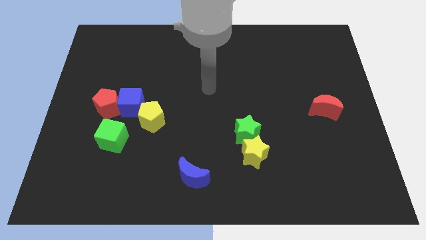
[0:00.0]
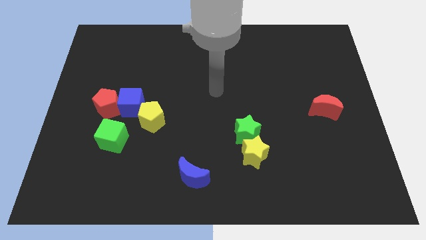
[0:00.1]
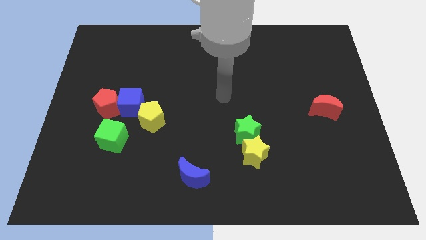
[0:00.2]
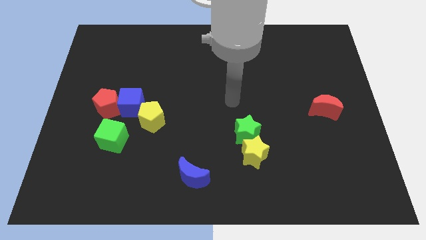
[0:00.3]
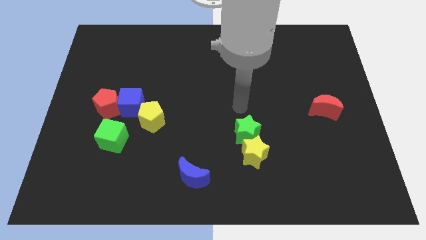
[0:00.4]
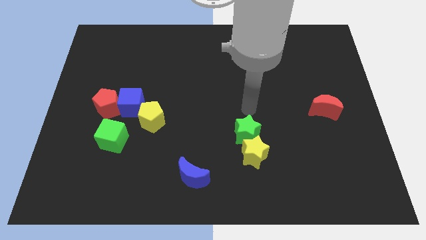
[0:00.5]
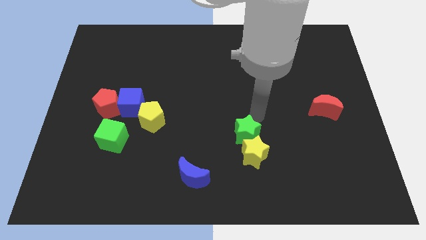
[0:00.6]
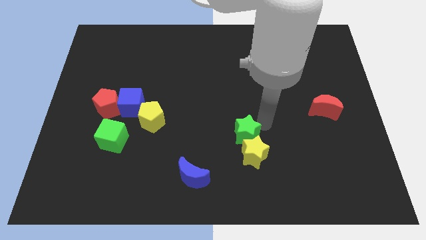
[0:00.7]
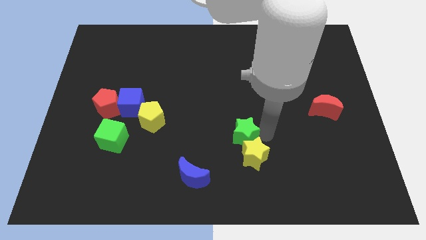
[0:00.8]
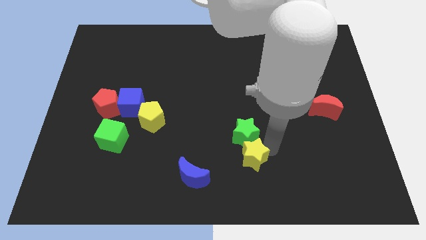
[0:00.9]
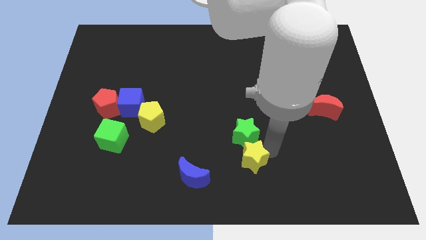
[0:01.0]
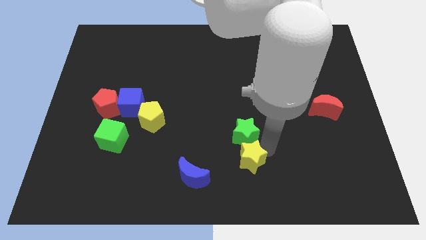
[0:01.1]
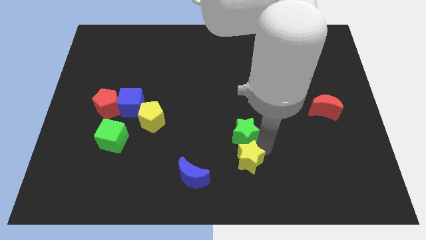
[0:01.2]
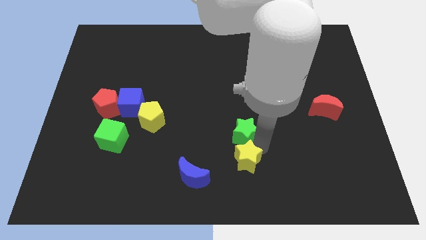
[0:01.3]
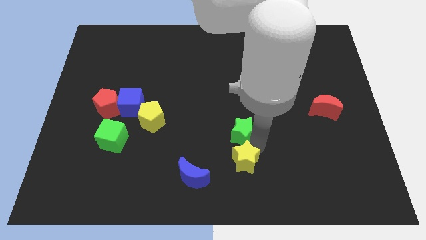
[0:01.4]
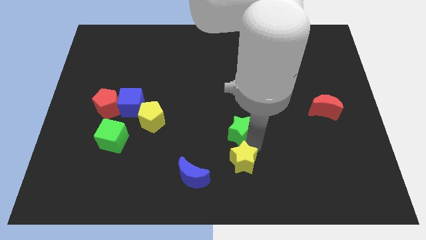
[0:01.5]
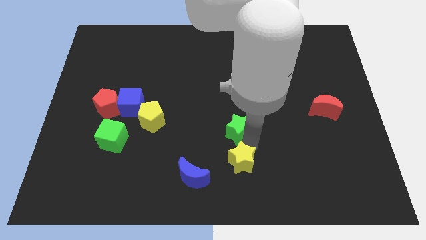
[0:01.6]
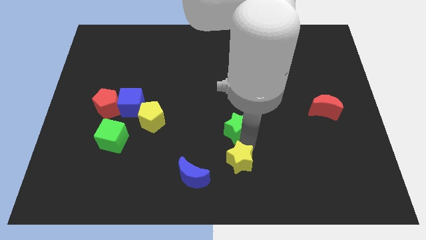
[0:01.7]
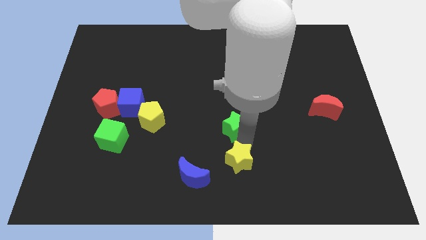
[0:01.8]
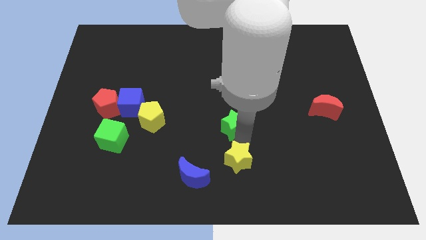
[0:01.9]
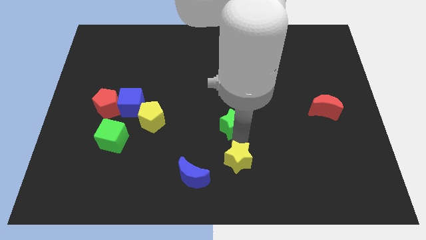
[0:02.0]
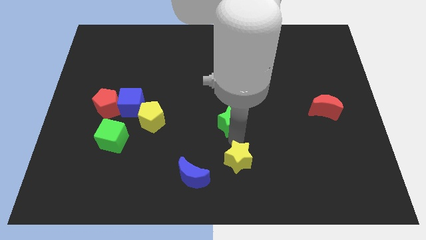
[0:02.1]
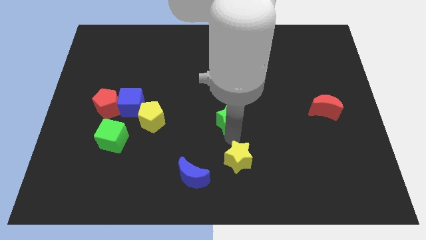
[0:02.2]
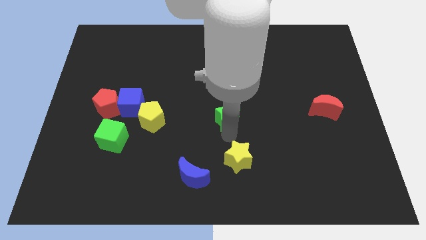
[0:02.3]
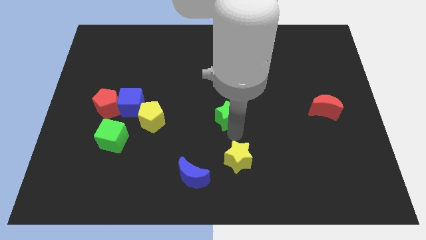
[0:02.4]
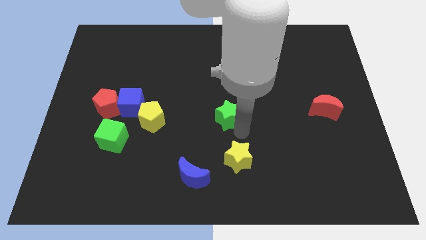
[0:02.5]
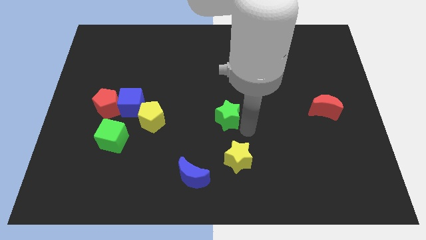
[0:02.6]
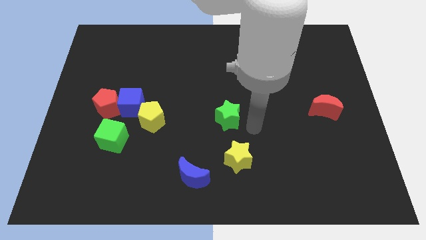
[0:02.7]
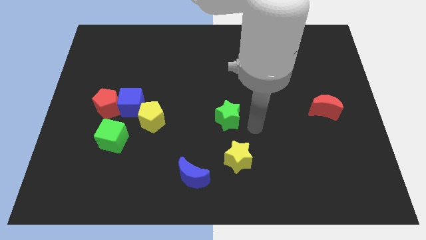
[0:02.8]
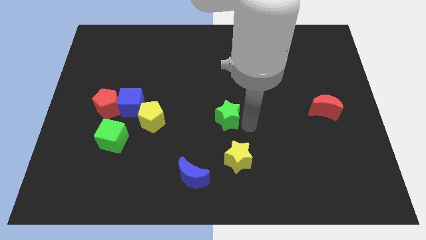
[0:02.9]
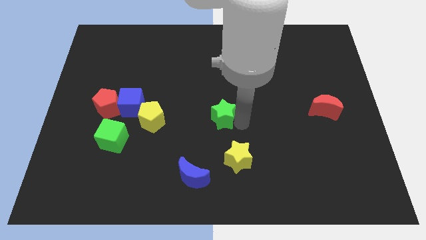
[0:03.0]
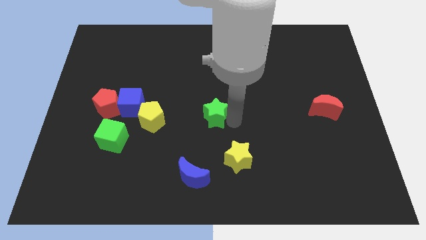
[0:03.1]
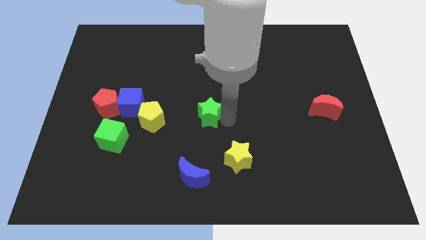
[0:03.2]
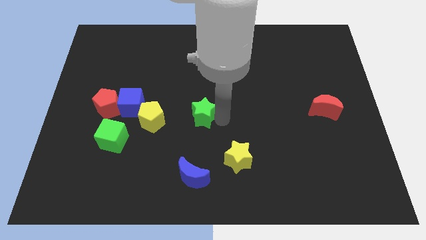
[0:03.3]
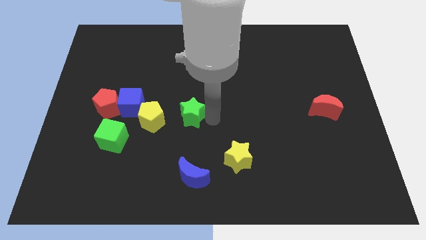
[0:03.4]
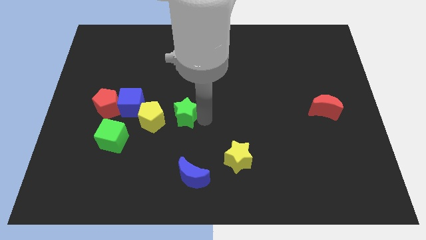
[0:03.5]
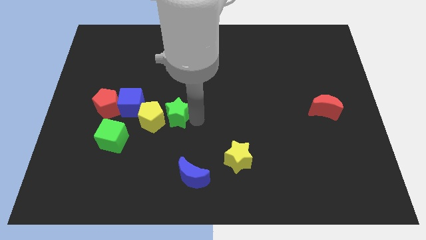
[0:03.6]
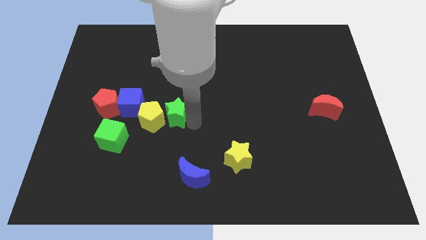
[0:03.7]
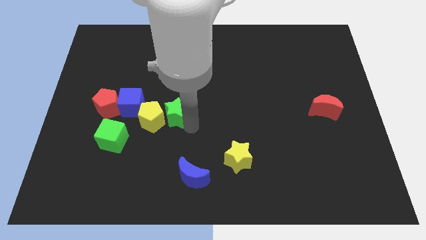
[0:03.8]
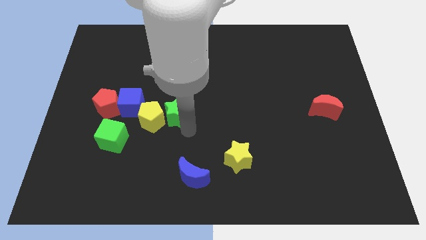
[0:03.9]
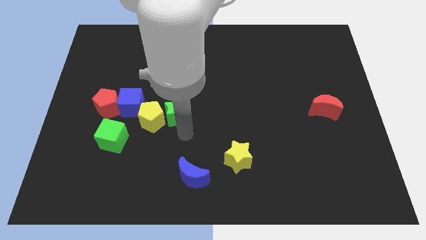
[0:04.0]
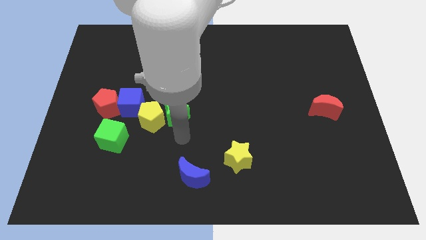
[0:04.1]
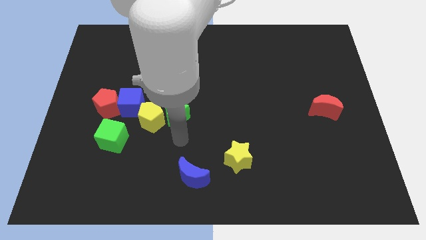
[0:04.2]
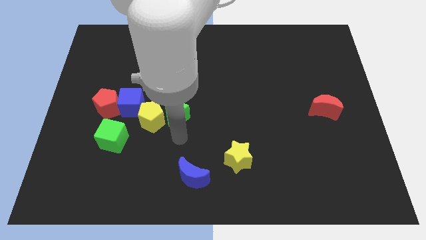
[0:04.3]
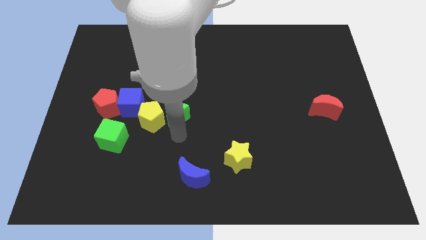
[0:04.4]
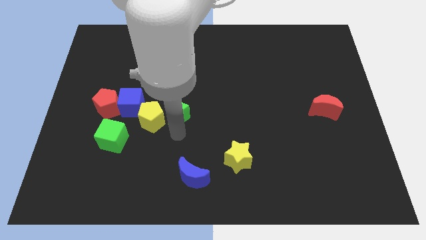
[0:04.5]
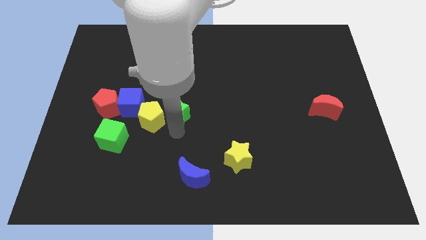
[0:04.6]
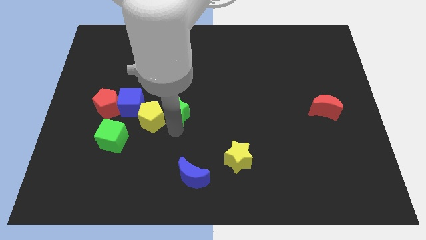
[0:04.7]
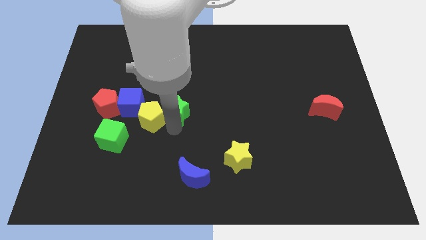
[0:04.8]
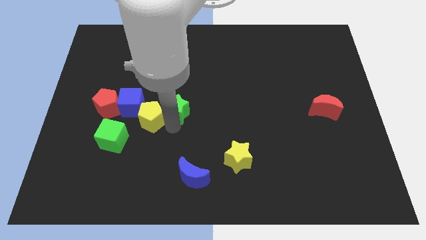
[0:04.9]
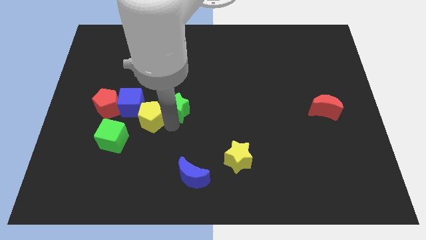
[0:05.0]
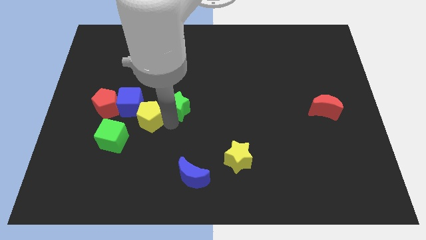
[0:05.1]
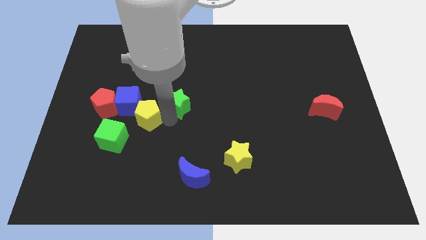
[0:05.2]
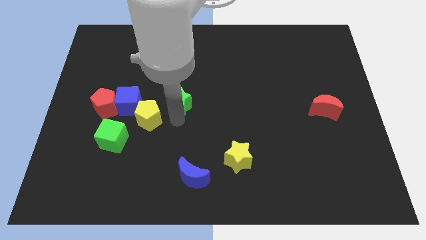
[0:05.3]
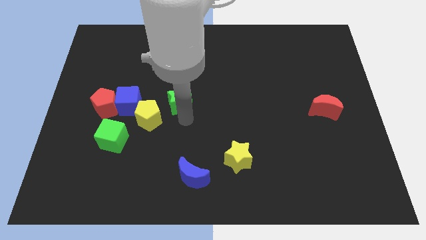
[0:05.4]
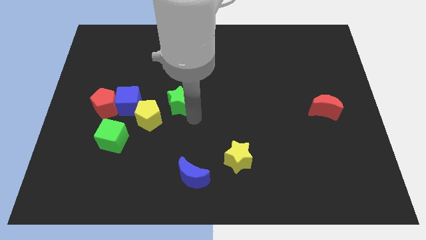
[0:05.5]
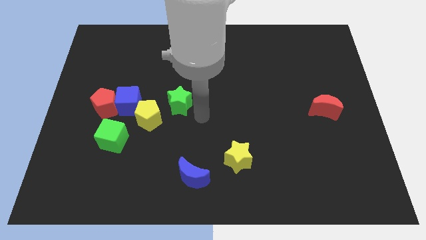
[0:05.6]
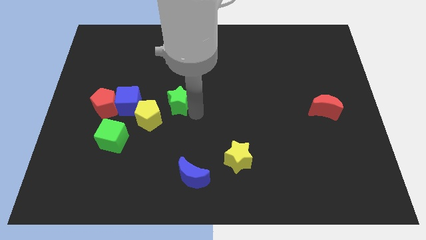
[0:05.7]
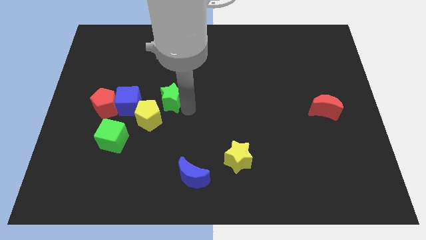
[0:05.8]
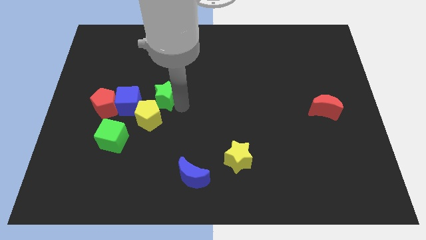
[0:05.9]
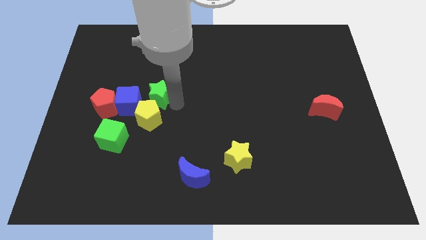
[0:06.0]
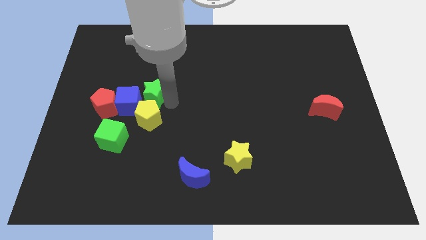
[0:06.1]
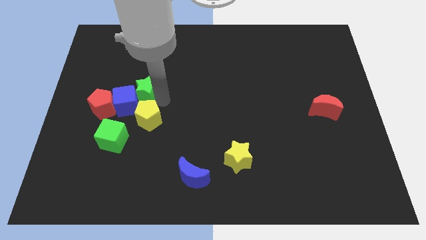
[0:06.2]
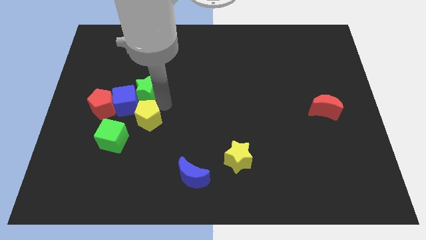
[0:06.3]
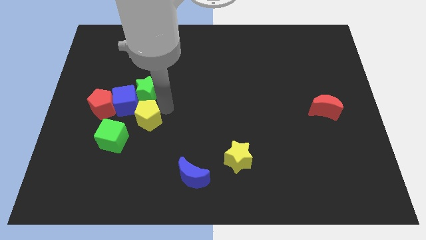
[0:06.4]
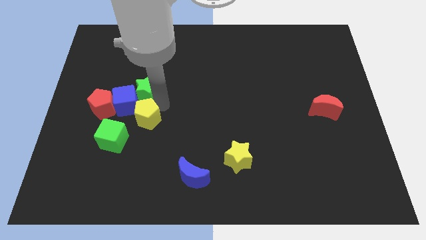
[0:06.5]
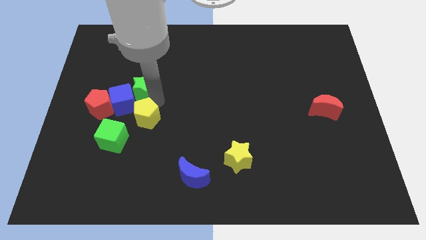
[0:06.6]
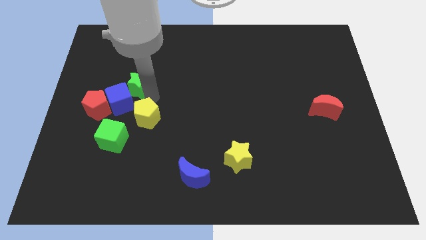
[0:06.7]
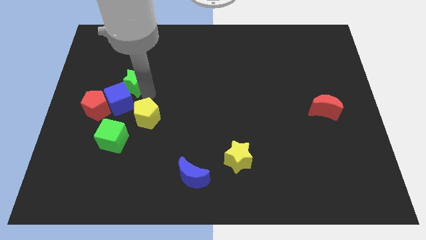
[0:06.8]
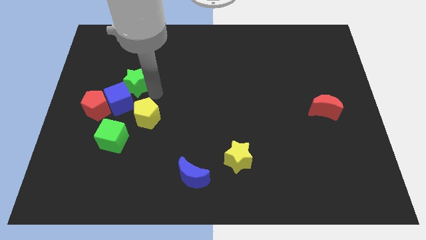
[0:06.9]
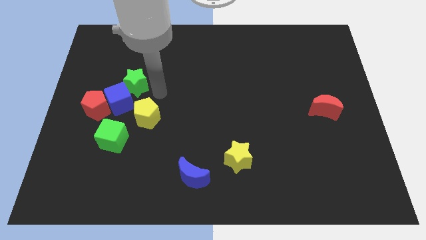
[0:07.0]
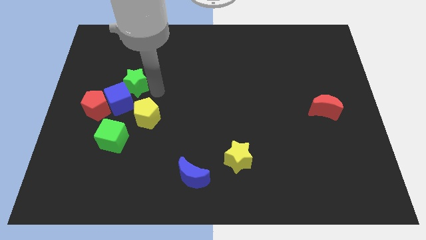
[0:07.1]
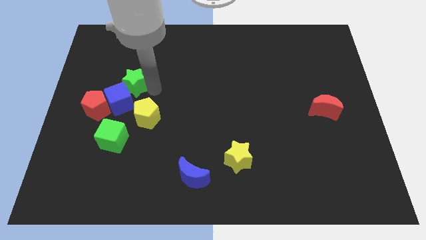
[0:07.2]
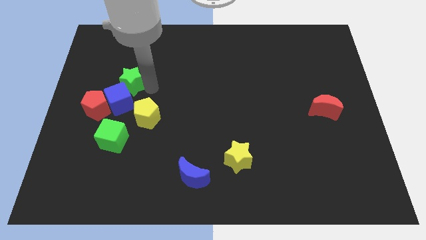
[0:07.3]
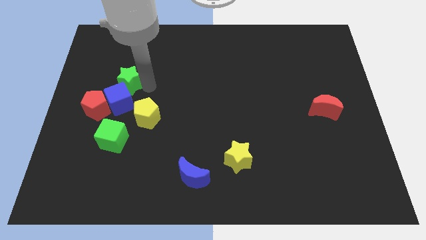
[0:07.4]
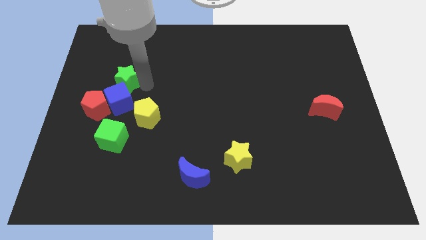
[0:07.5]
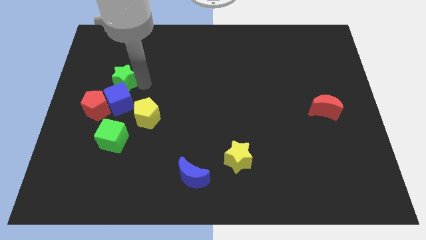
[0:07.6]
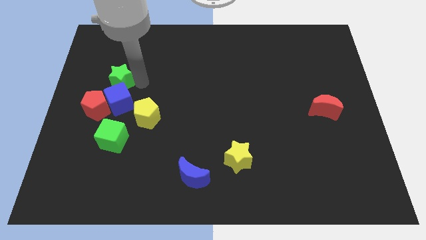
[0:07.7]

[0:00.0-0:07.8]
slide the green star above the red pentagon
